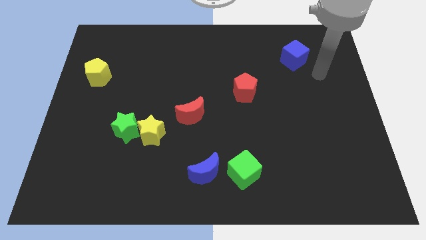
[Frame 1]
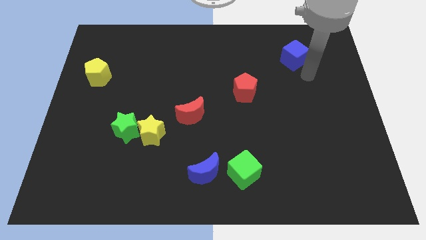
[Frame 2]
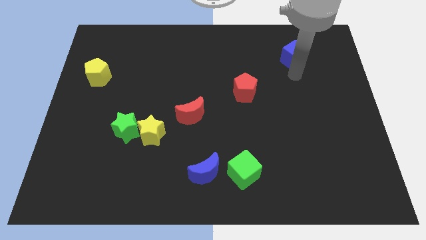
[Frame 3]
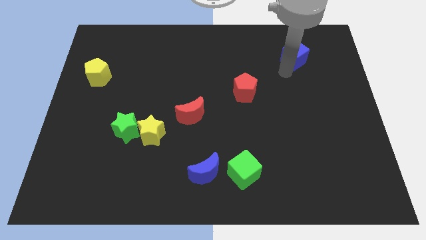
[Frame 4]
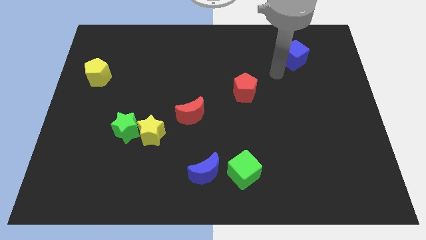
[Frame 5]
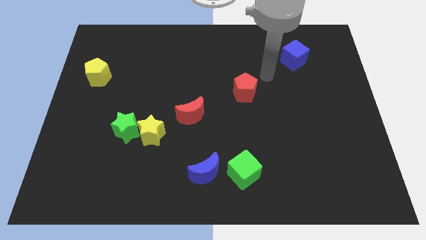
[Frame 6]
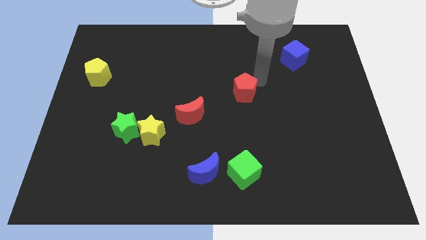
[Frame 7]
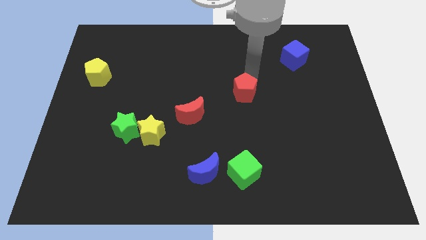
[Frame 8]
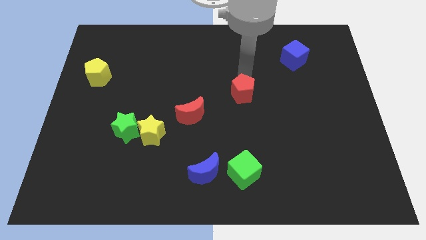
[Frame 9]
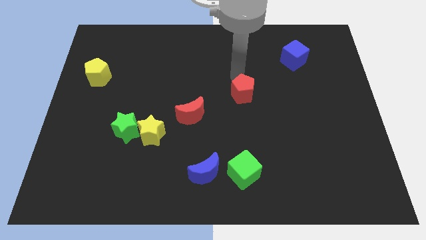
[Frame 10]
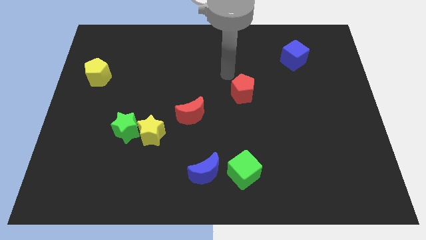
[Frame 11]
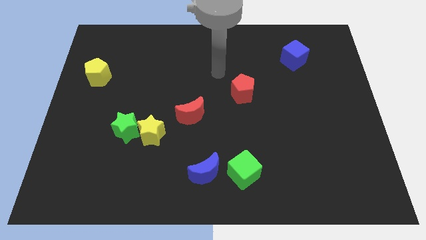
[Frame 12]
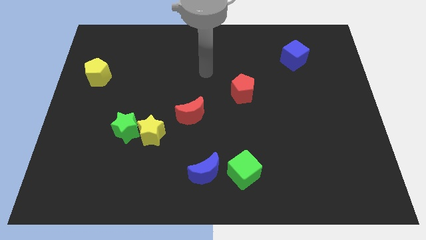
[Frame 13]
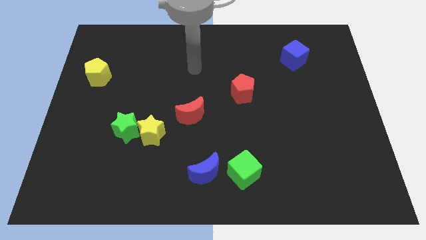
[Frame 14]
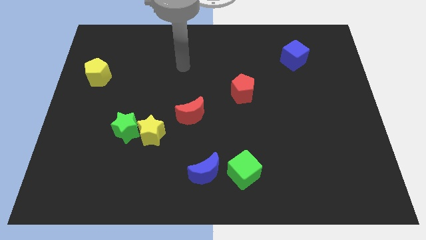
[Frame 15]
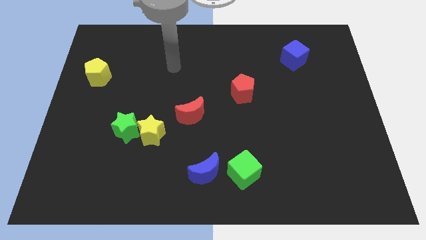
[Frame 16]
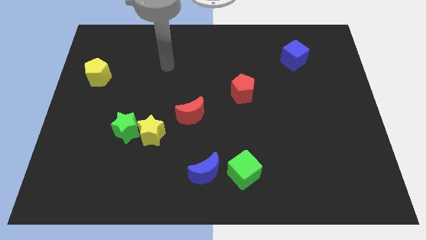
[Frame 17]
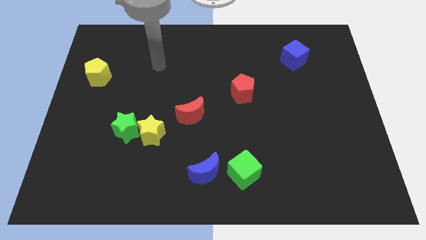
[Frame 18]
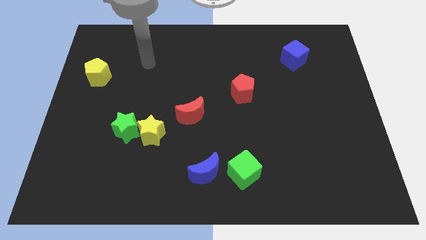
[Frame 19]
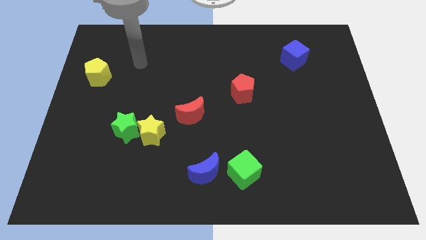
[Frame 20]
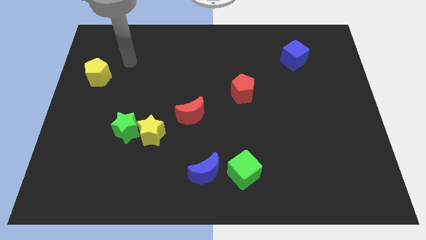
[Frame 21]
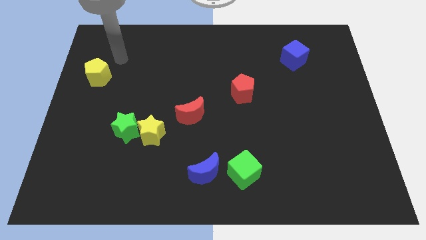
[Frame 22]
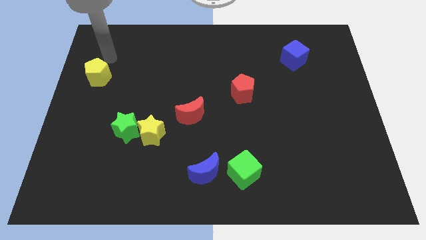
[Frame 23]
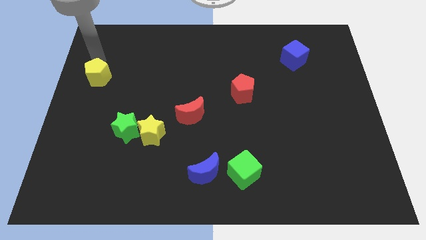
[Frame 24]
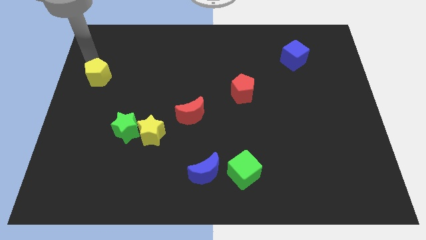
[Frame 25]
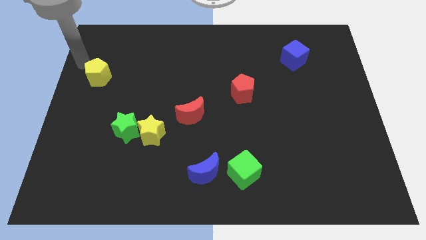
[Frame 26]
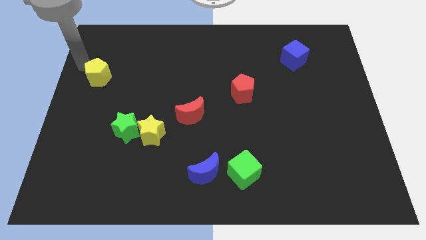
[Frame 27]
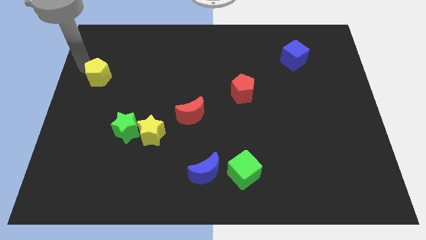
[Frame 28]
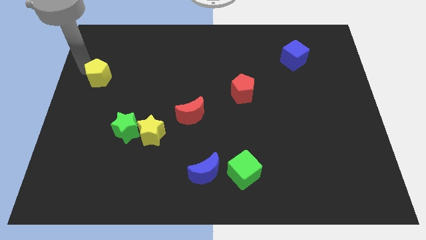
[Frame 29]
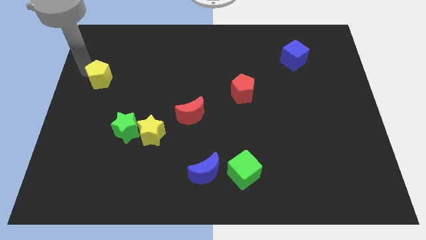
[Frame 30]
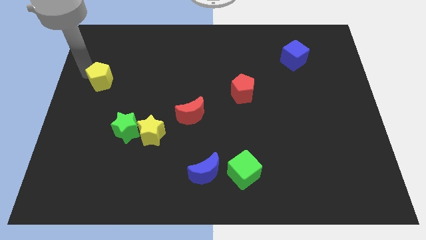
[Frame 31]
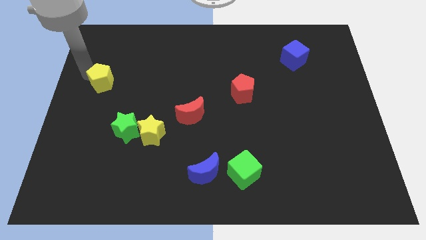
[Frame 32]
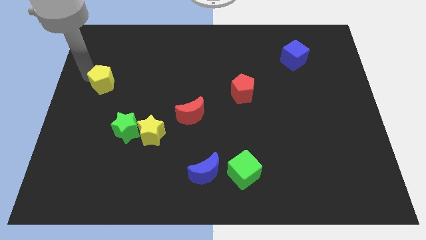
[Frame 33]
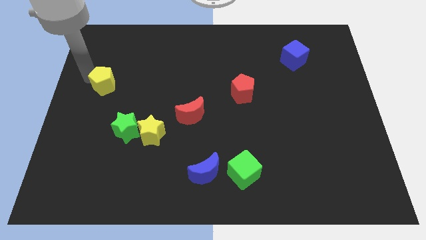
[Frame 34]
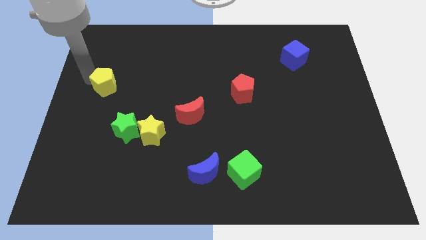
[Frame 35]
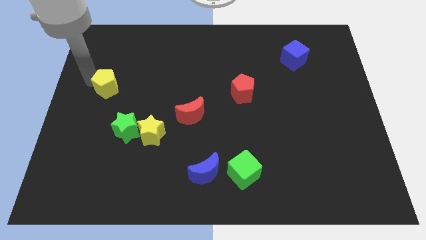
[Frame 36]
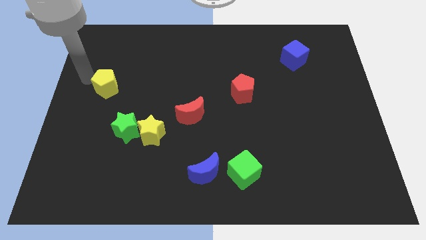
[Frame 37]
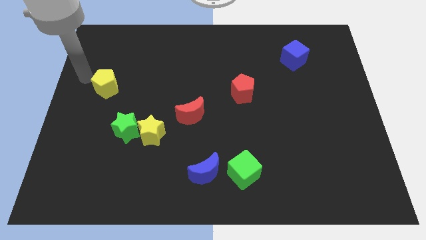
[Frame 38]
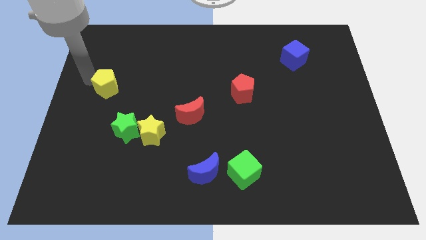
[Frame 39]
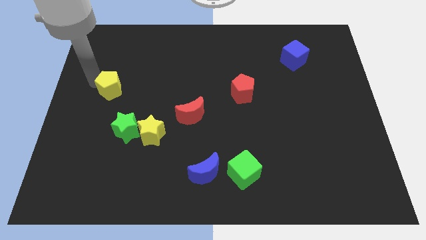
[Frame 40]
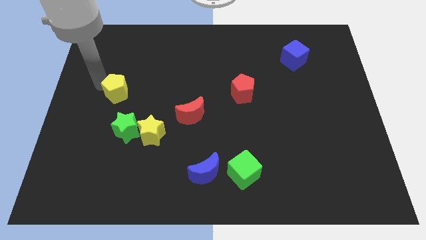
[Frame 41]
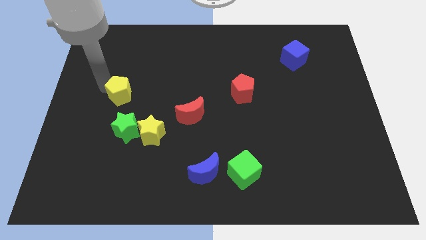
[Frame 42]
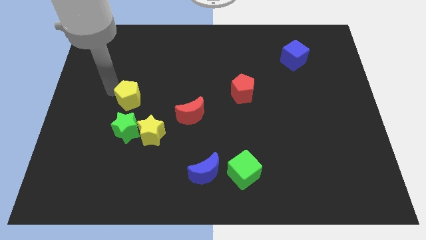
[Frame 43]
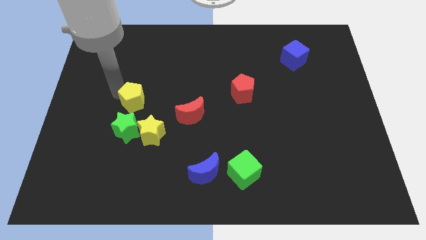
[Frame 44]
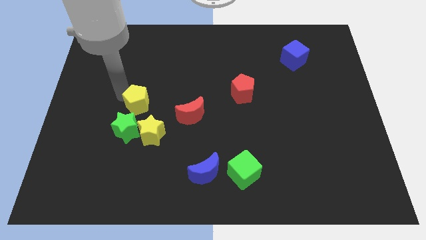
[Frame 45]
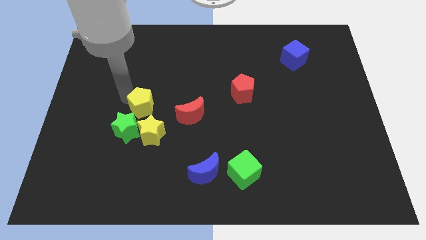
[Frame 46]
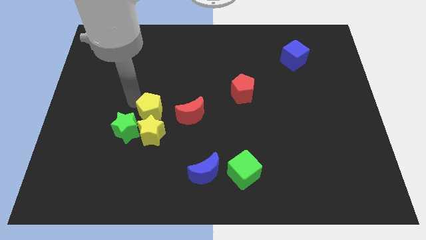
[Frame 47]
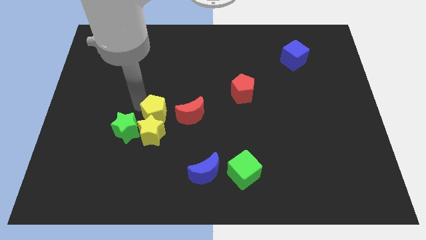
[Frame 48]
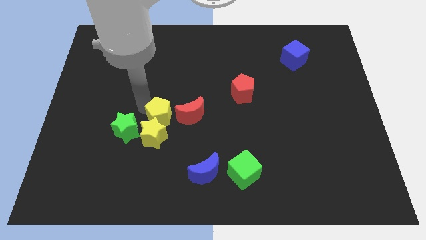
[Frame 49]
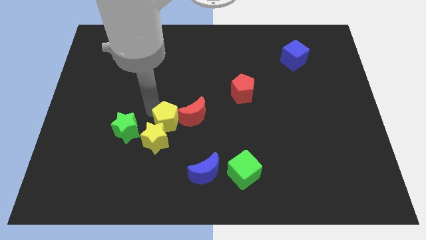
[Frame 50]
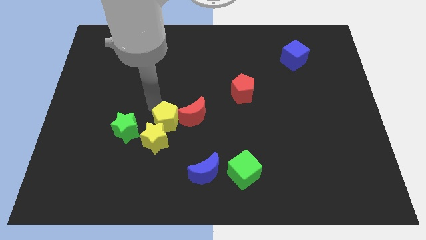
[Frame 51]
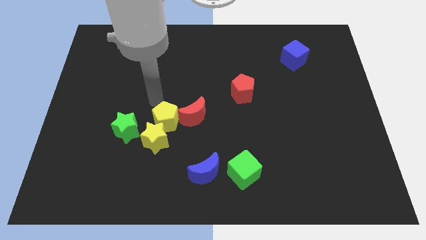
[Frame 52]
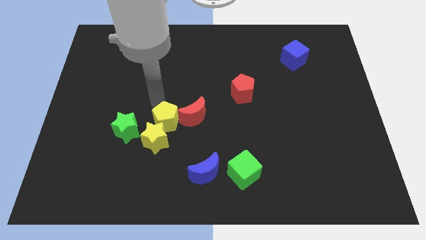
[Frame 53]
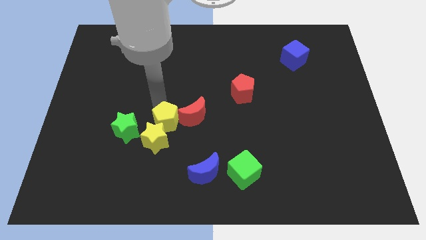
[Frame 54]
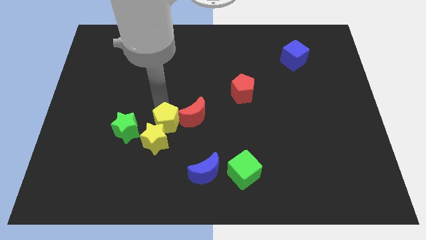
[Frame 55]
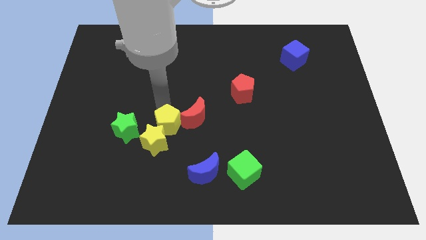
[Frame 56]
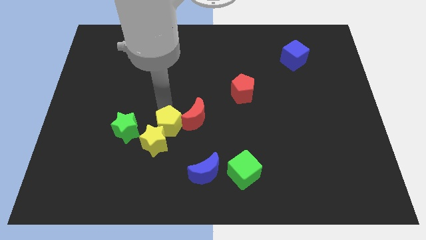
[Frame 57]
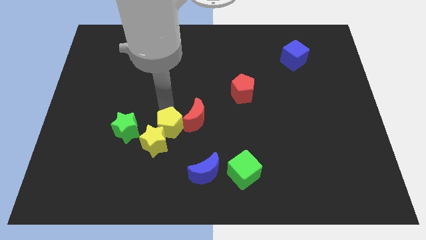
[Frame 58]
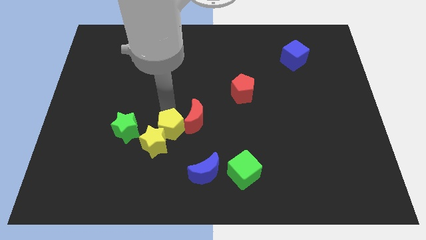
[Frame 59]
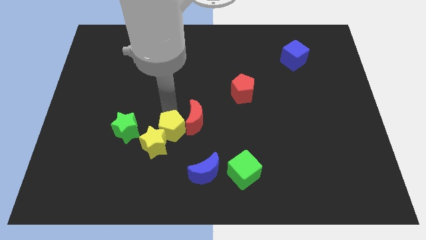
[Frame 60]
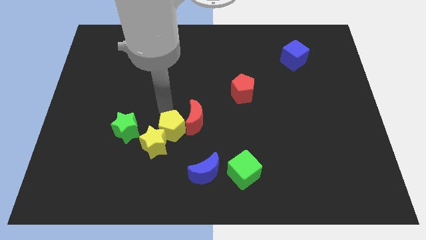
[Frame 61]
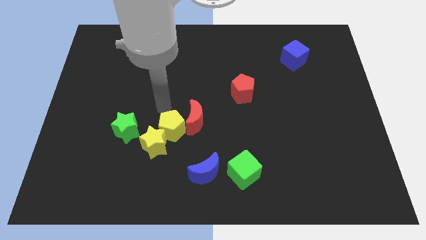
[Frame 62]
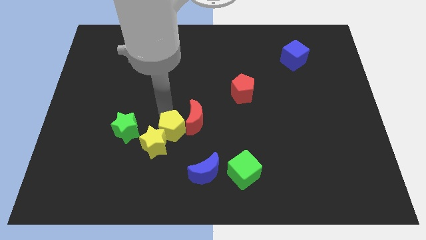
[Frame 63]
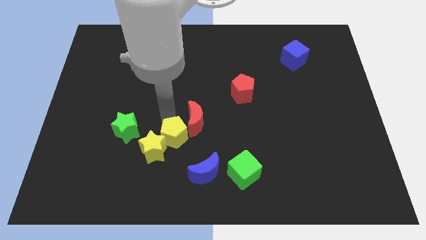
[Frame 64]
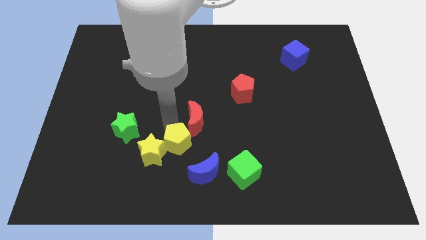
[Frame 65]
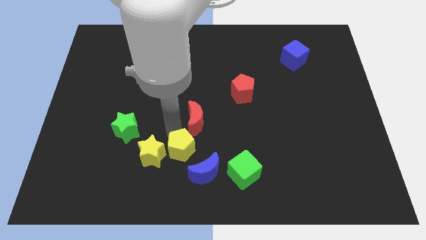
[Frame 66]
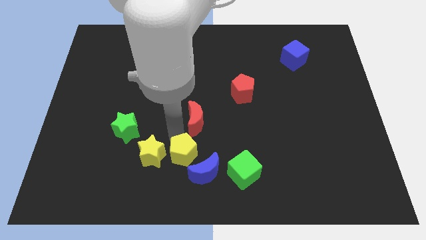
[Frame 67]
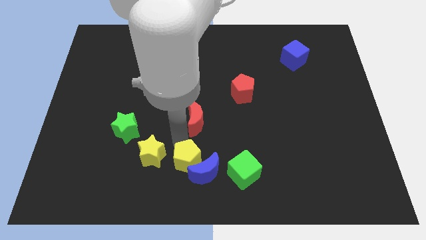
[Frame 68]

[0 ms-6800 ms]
put the yellow pentagon to the bottom
